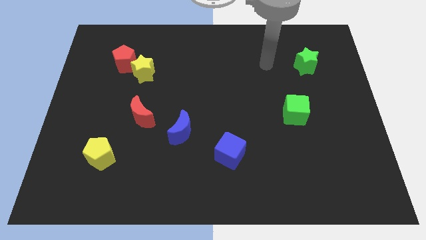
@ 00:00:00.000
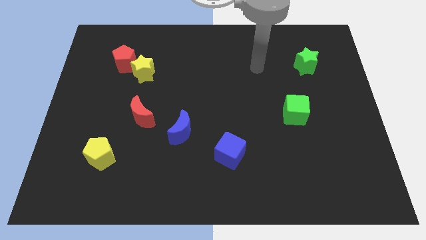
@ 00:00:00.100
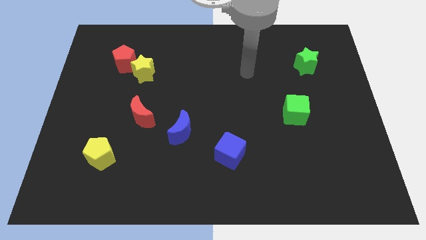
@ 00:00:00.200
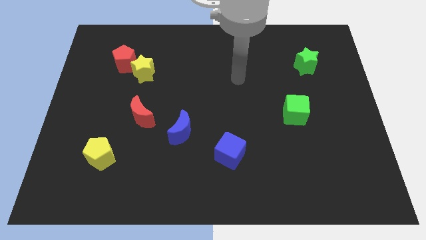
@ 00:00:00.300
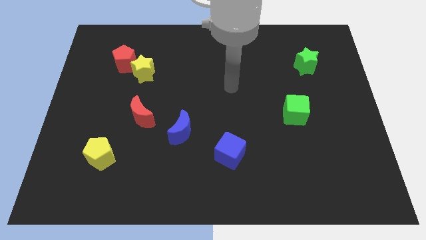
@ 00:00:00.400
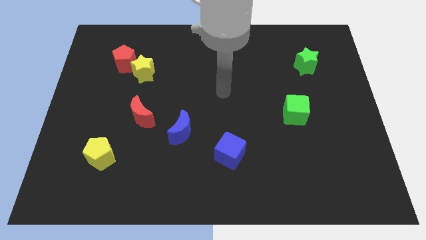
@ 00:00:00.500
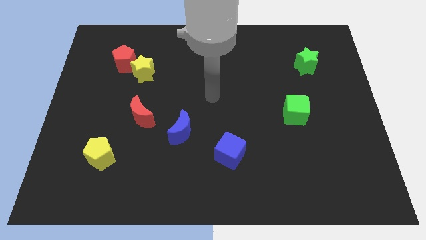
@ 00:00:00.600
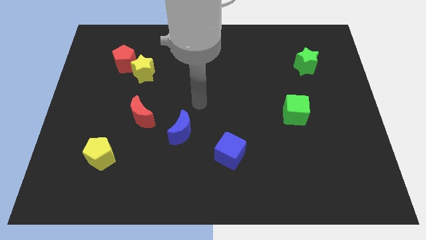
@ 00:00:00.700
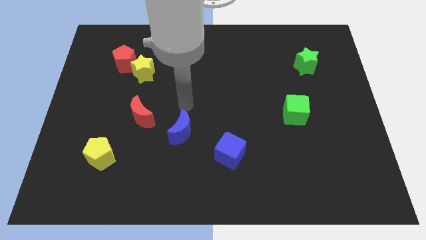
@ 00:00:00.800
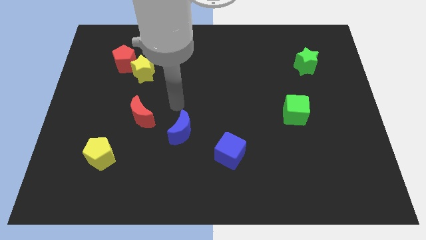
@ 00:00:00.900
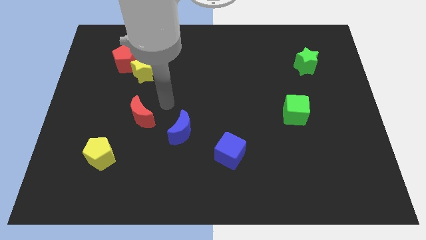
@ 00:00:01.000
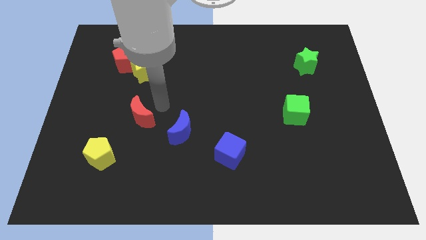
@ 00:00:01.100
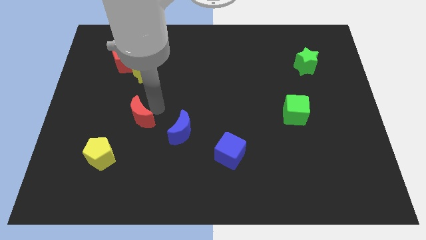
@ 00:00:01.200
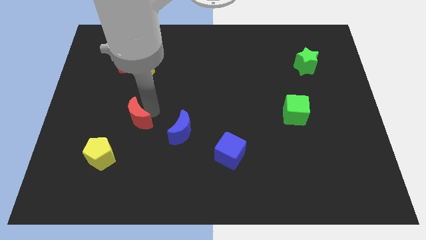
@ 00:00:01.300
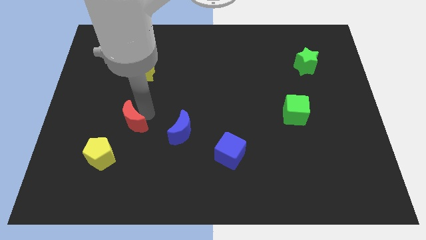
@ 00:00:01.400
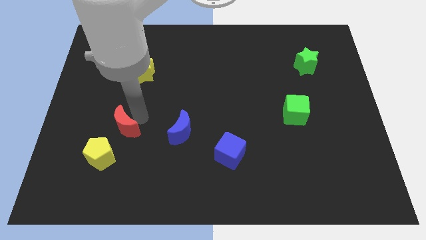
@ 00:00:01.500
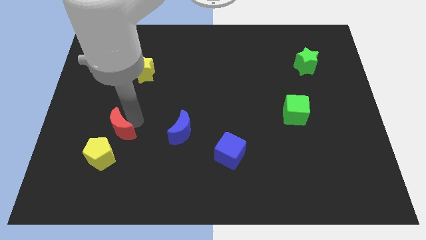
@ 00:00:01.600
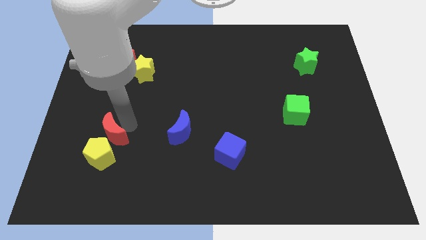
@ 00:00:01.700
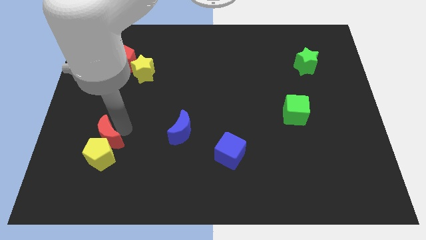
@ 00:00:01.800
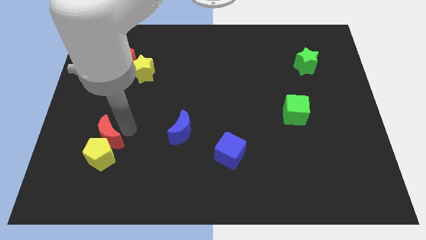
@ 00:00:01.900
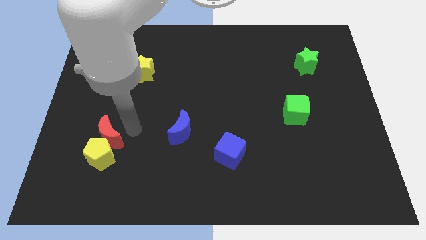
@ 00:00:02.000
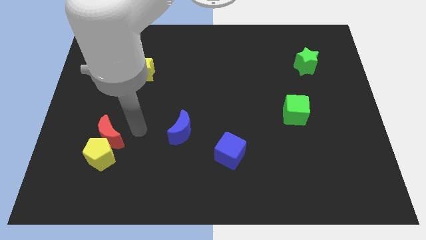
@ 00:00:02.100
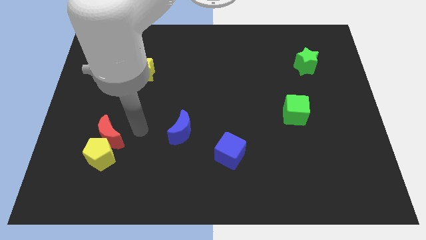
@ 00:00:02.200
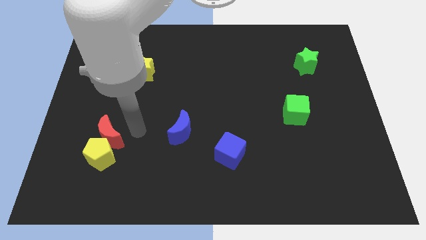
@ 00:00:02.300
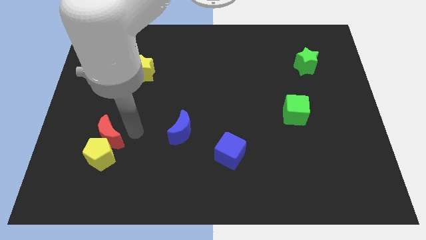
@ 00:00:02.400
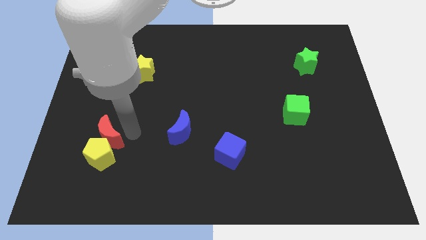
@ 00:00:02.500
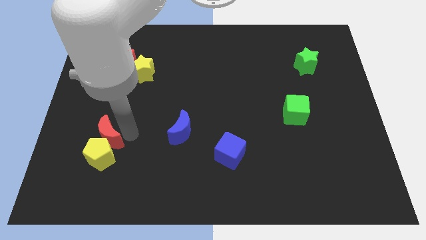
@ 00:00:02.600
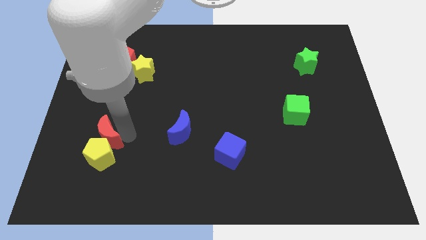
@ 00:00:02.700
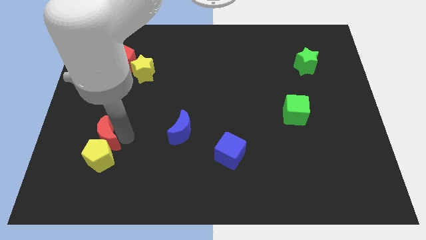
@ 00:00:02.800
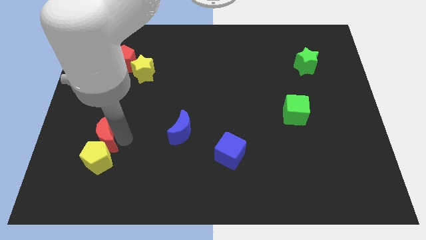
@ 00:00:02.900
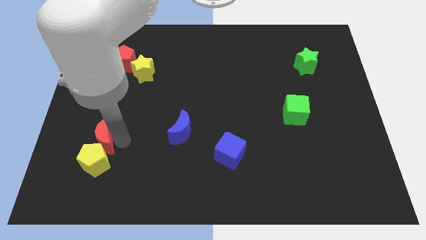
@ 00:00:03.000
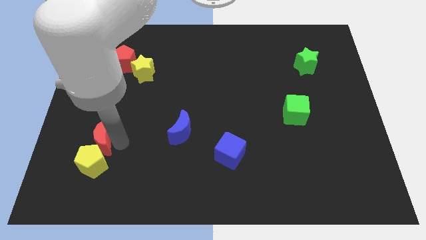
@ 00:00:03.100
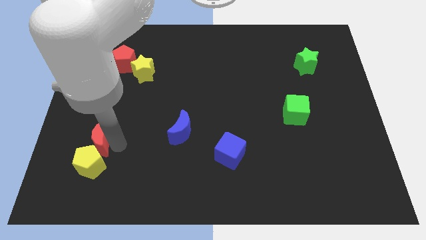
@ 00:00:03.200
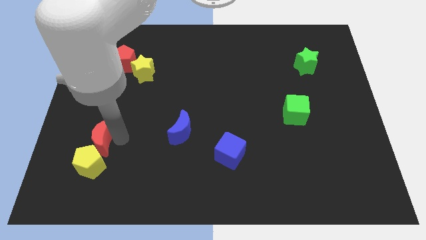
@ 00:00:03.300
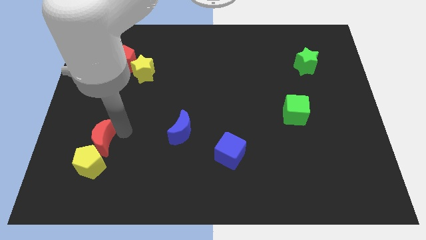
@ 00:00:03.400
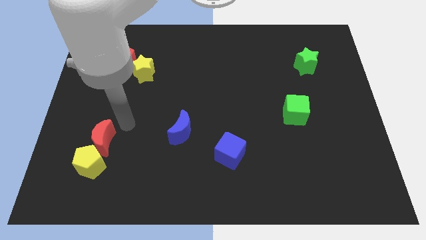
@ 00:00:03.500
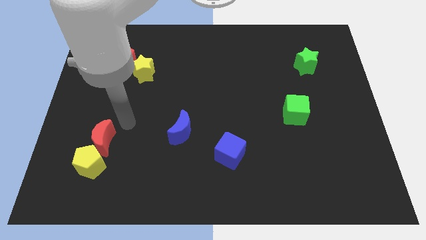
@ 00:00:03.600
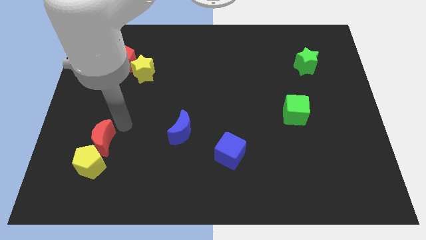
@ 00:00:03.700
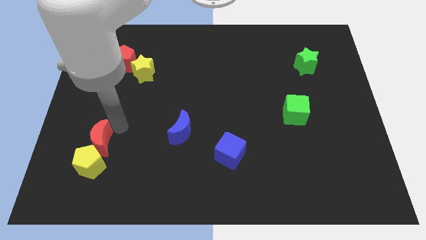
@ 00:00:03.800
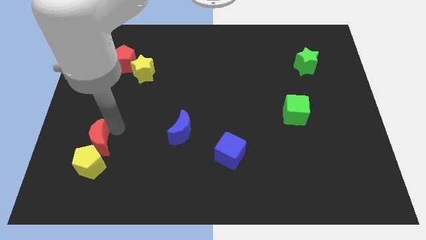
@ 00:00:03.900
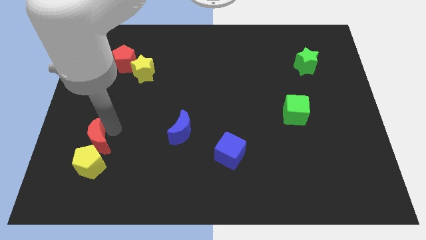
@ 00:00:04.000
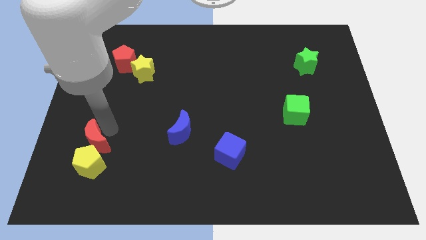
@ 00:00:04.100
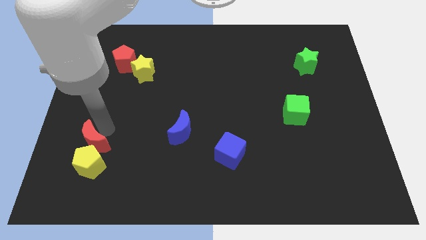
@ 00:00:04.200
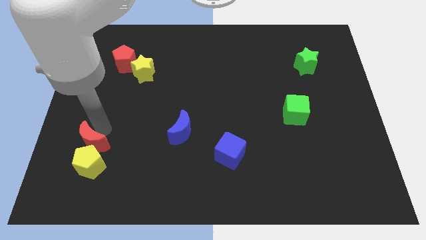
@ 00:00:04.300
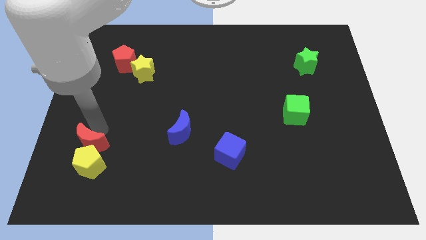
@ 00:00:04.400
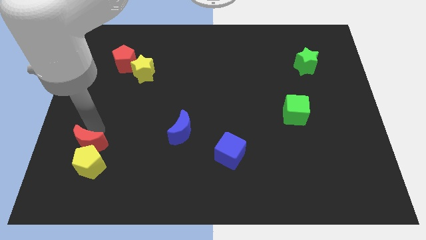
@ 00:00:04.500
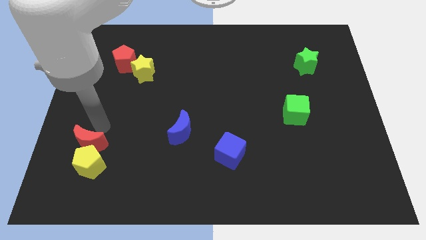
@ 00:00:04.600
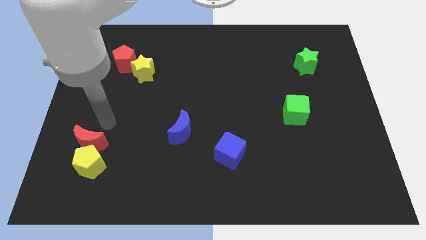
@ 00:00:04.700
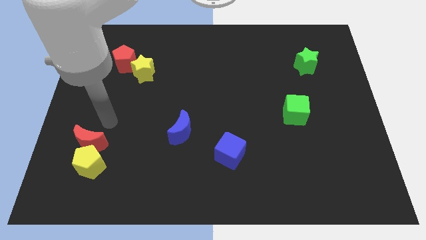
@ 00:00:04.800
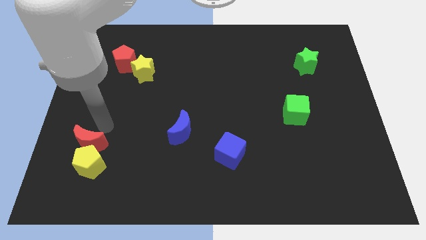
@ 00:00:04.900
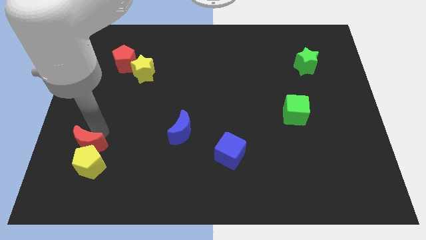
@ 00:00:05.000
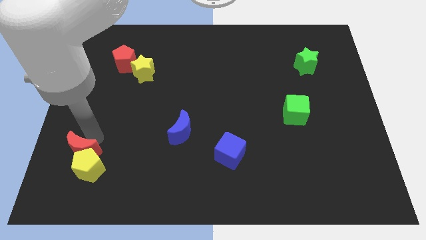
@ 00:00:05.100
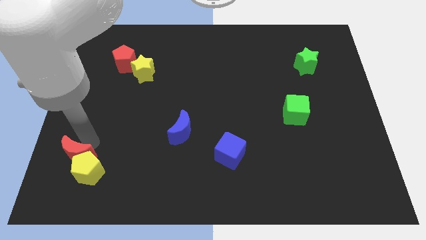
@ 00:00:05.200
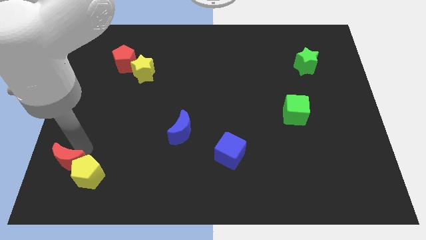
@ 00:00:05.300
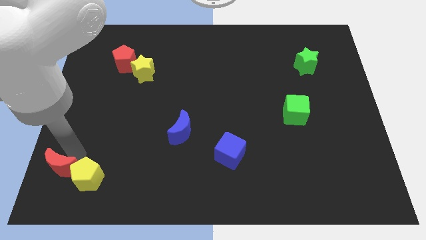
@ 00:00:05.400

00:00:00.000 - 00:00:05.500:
push the red moon to the bottom left of the board

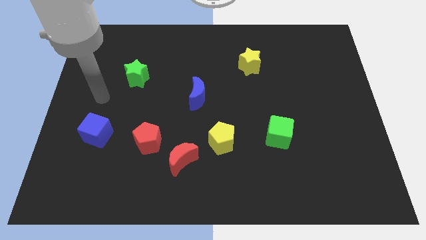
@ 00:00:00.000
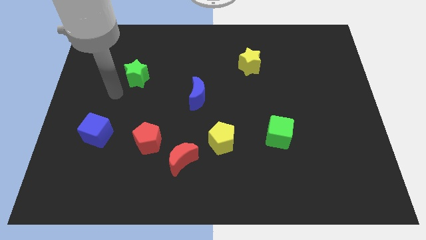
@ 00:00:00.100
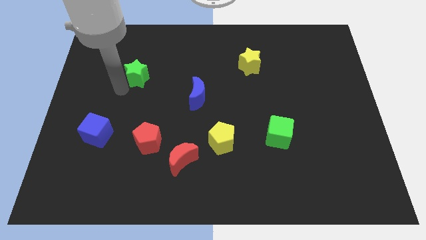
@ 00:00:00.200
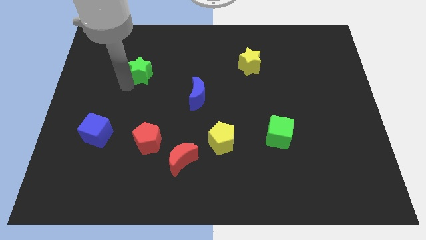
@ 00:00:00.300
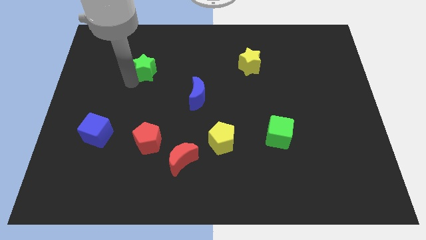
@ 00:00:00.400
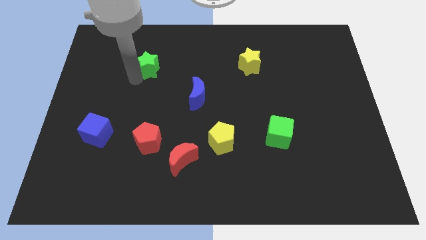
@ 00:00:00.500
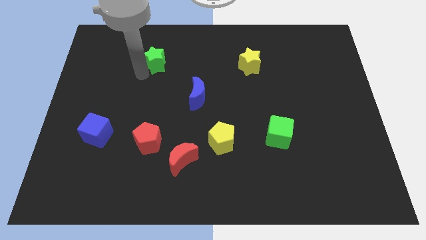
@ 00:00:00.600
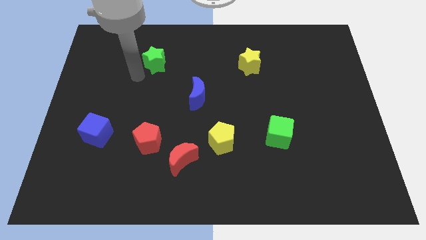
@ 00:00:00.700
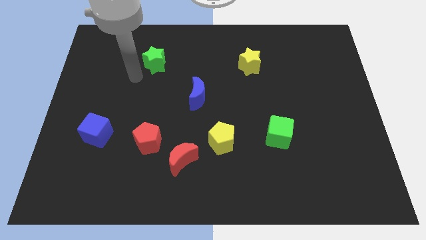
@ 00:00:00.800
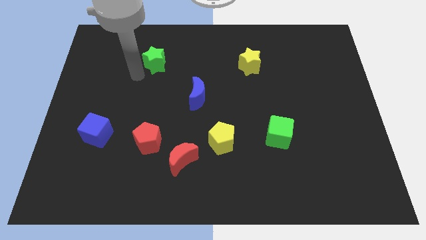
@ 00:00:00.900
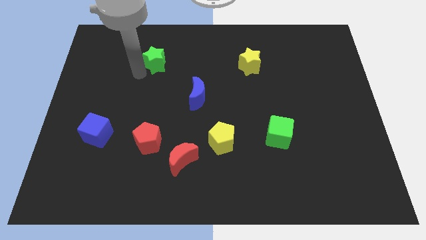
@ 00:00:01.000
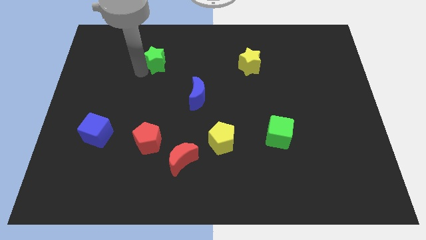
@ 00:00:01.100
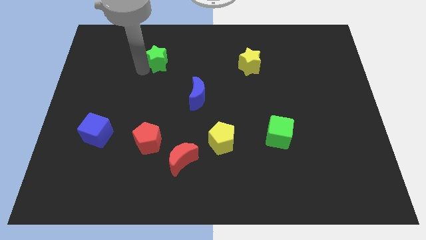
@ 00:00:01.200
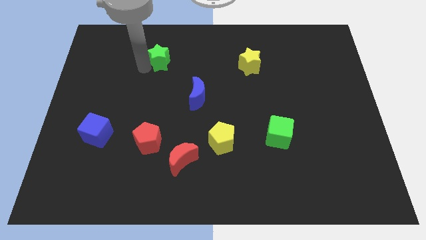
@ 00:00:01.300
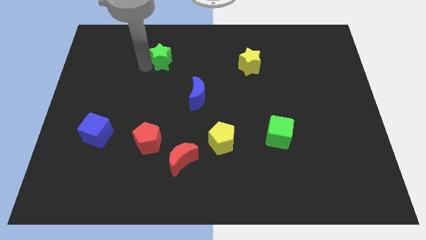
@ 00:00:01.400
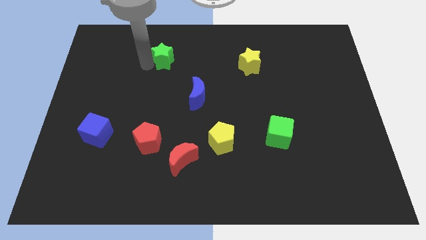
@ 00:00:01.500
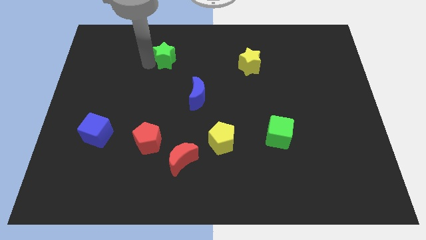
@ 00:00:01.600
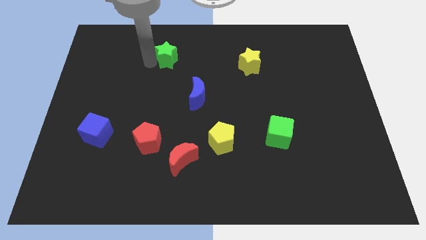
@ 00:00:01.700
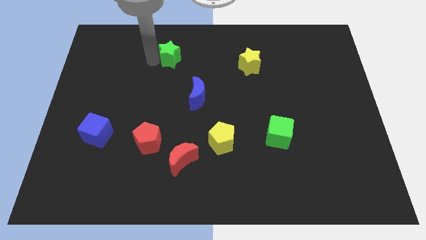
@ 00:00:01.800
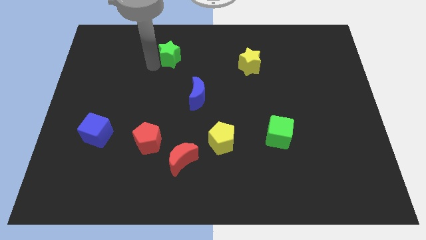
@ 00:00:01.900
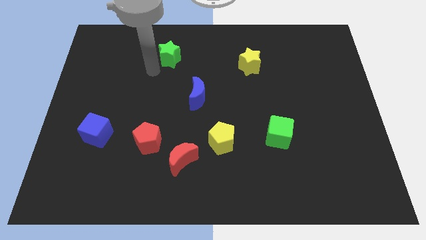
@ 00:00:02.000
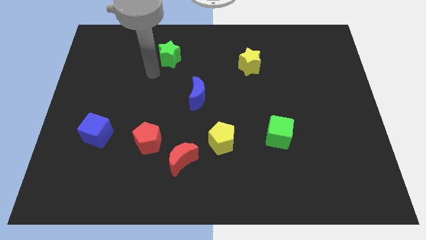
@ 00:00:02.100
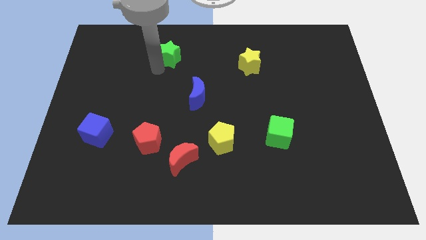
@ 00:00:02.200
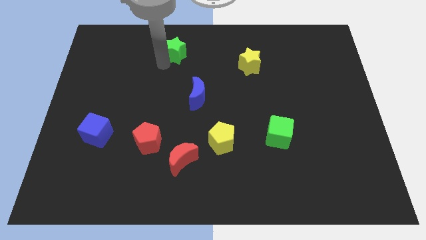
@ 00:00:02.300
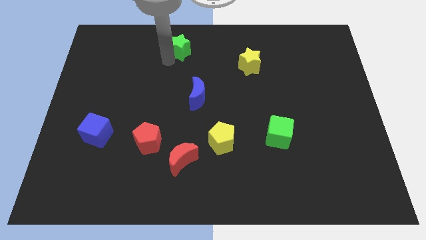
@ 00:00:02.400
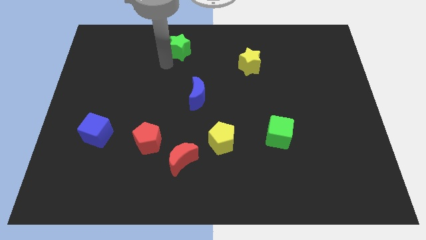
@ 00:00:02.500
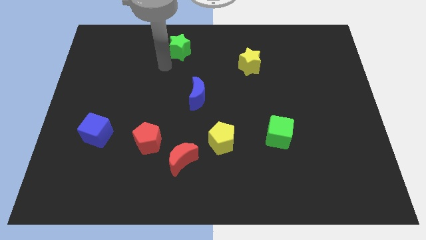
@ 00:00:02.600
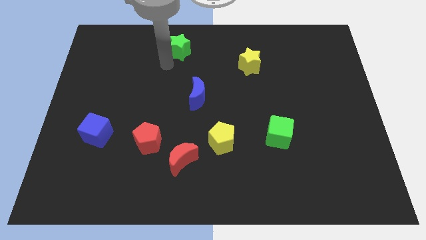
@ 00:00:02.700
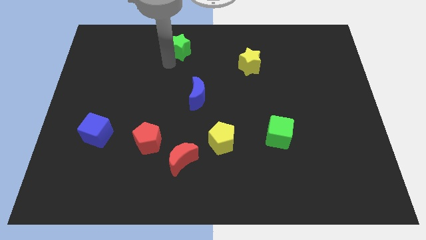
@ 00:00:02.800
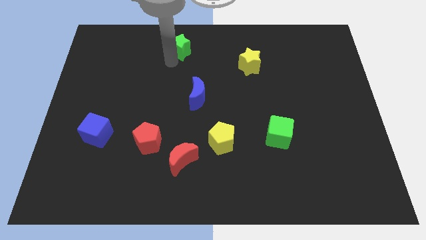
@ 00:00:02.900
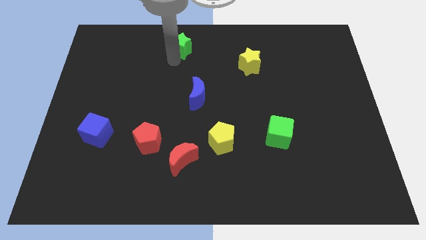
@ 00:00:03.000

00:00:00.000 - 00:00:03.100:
slide the green star to the top
